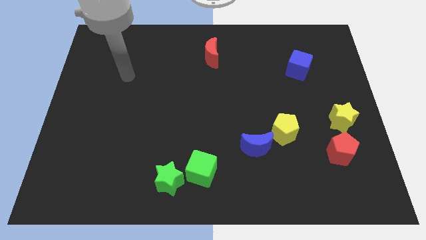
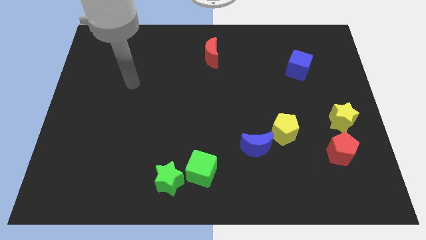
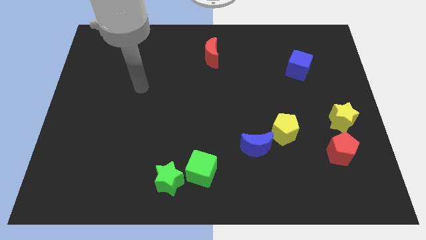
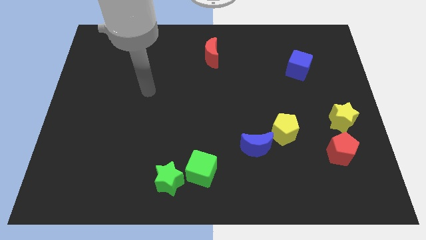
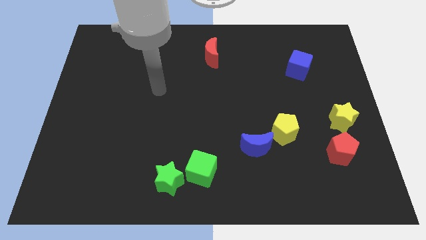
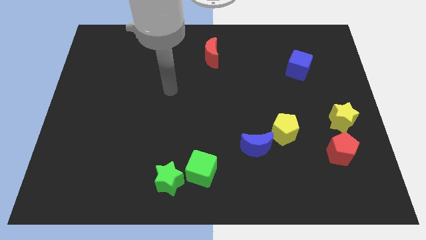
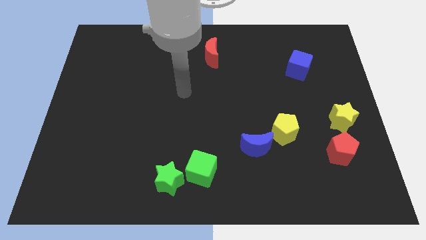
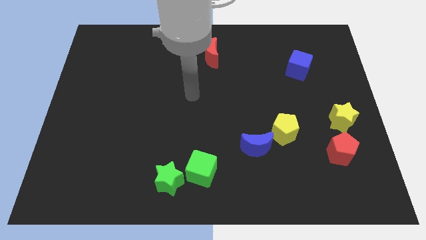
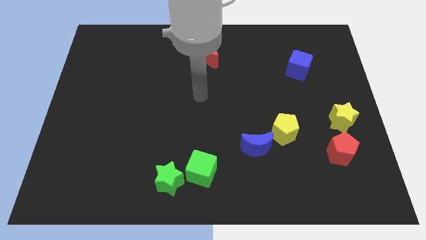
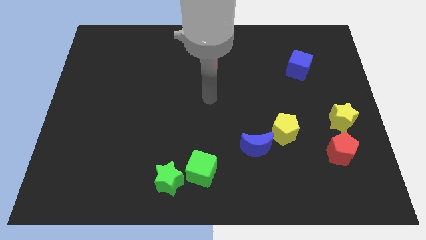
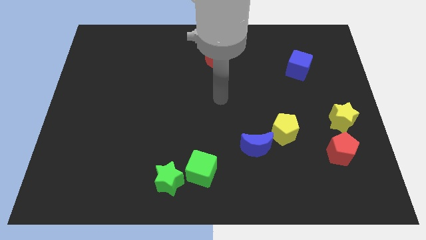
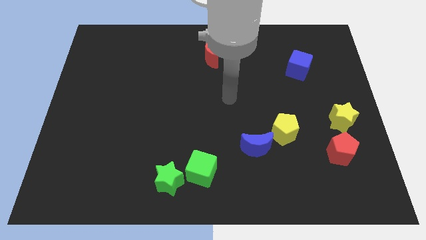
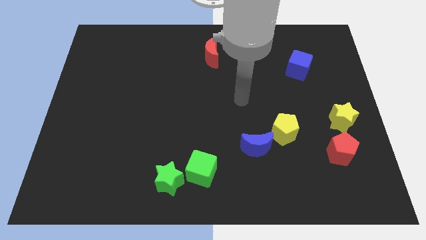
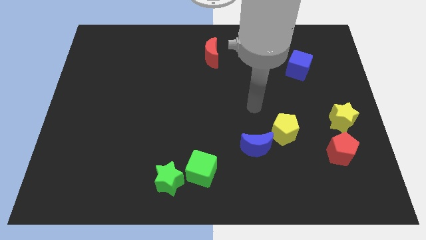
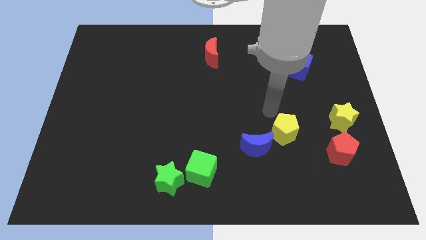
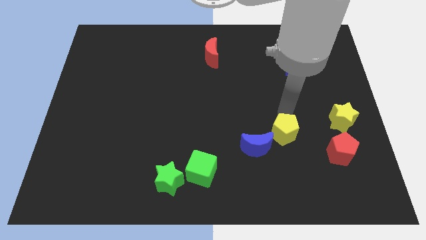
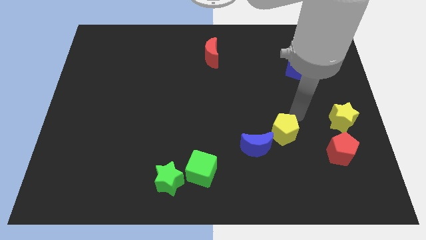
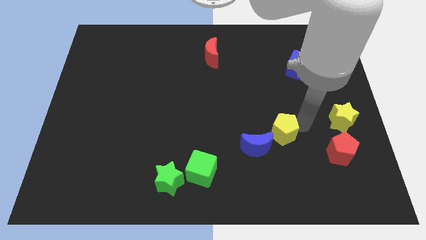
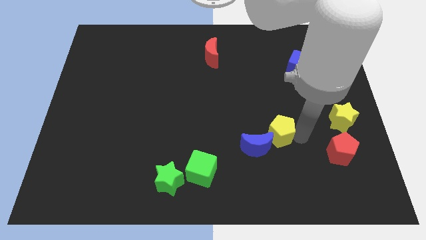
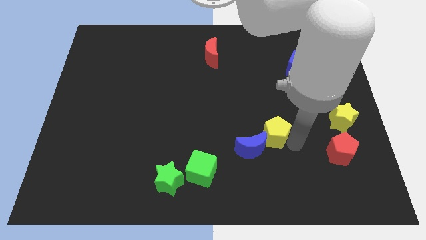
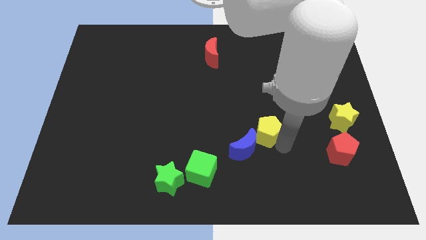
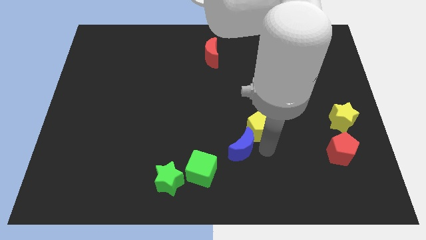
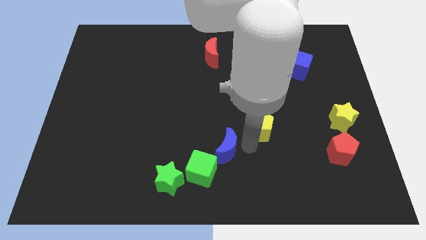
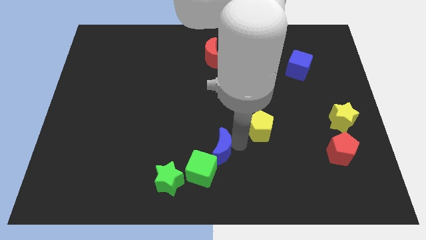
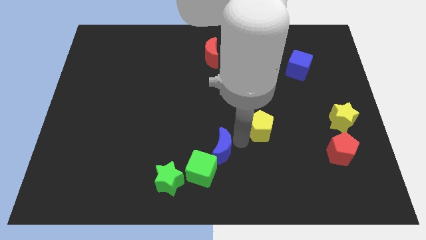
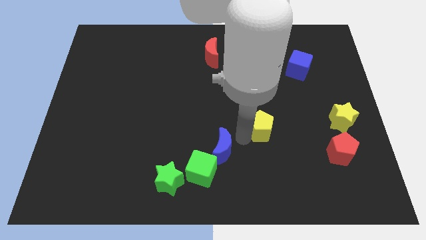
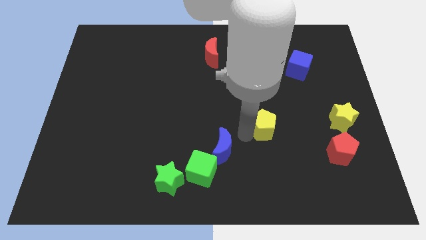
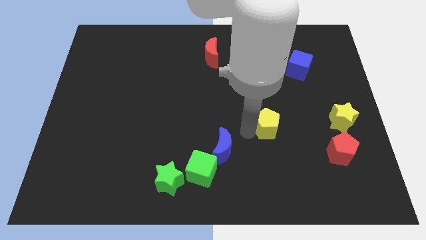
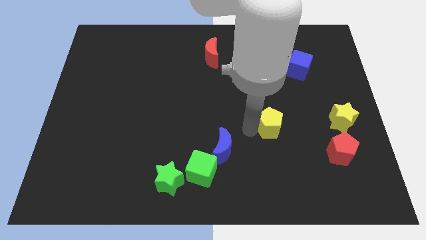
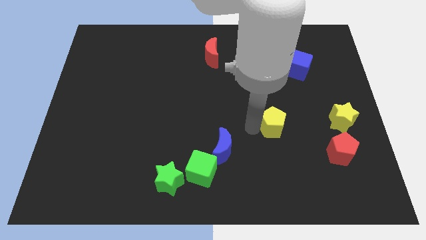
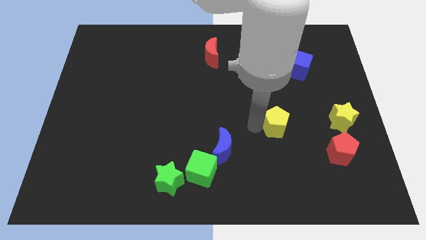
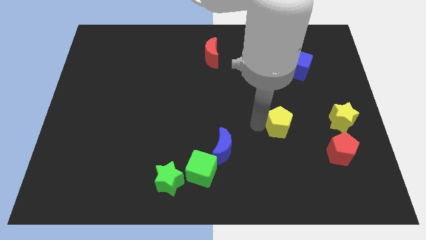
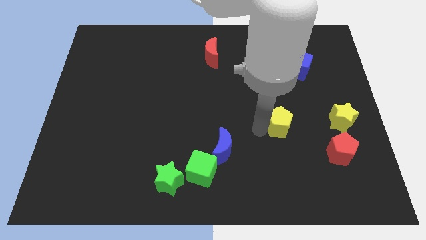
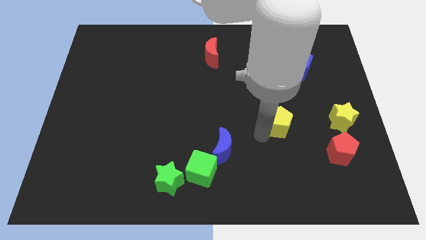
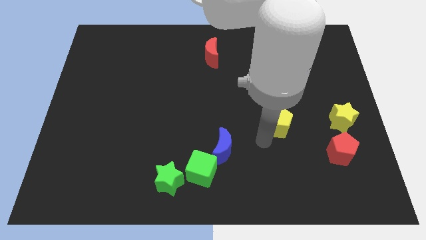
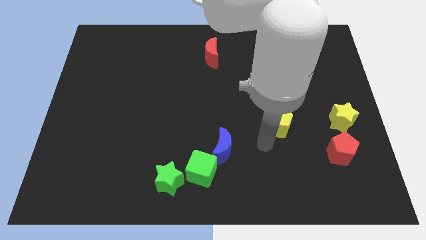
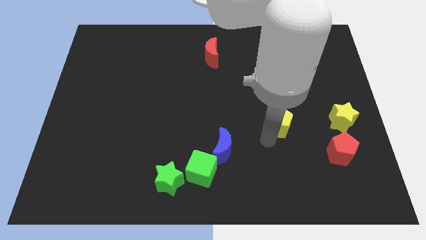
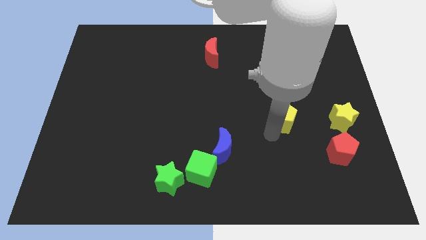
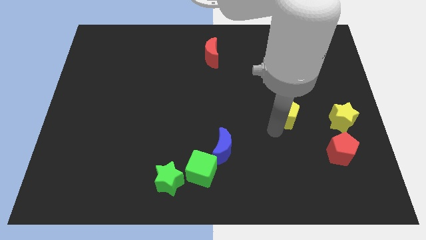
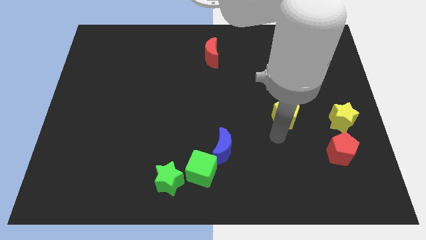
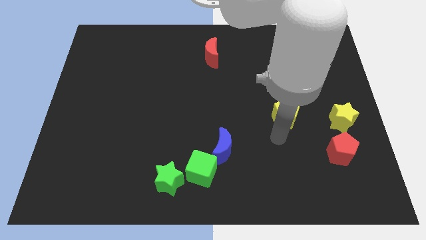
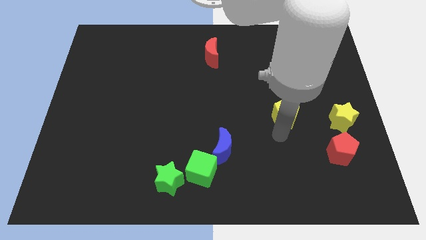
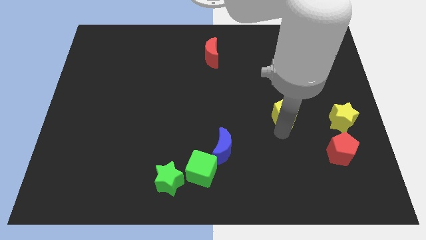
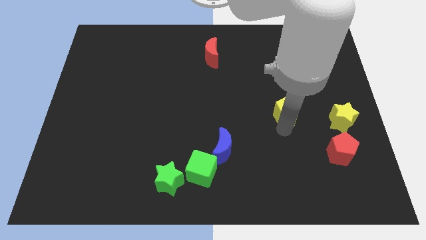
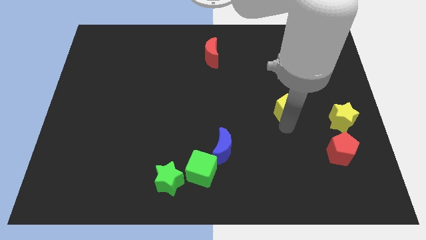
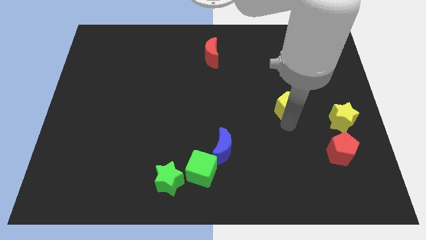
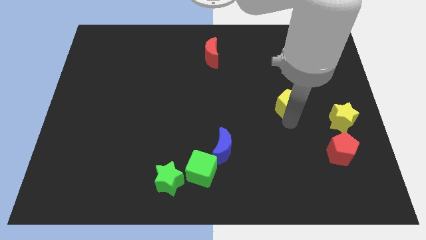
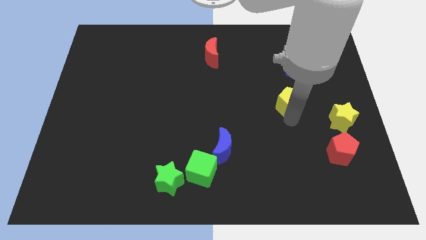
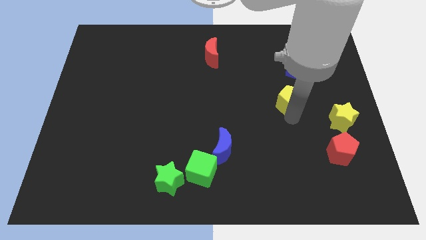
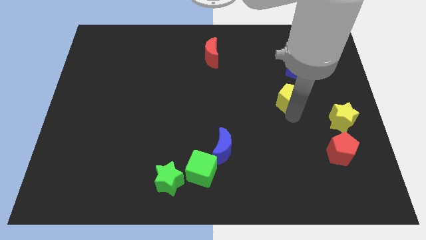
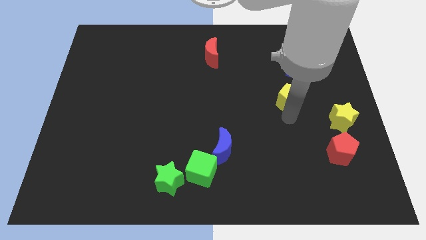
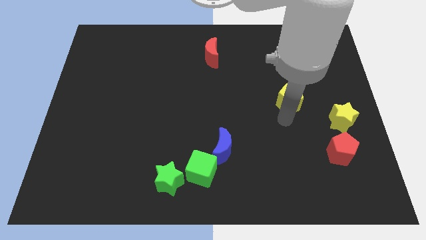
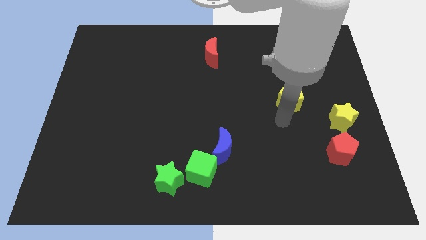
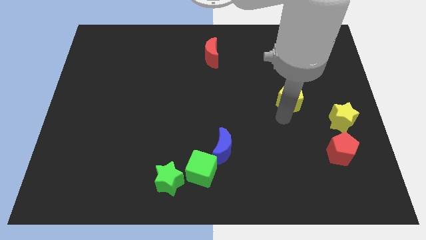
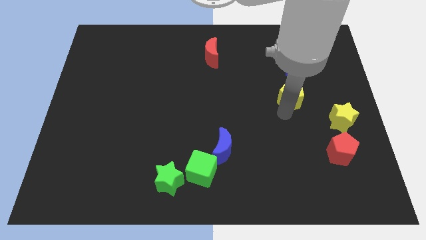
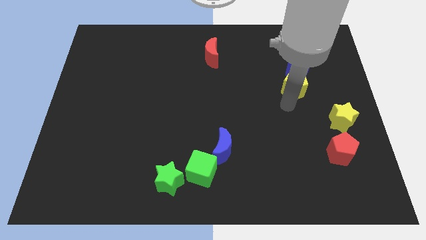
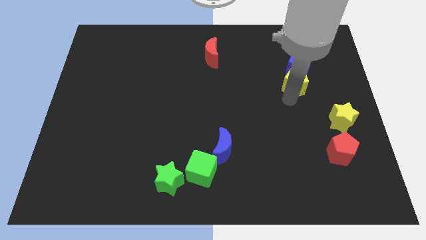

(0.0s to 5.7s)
slide the yellow pentagon towards the blue cube

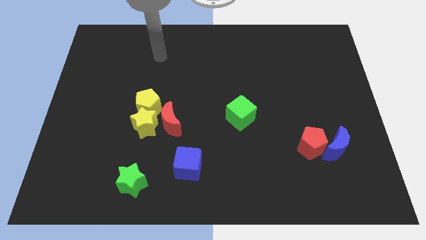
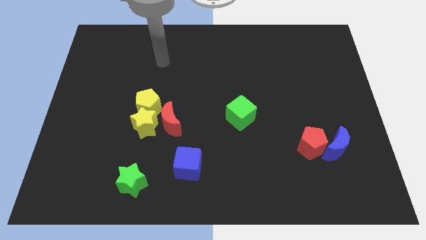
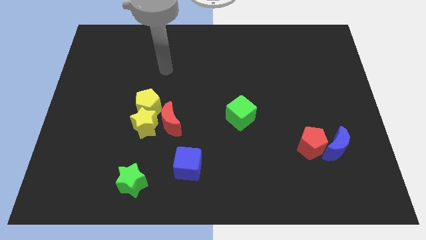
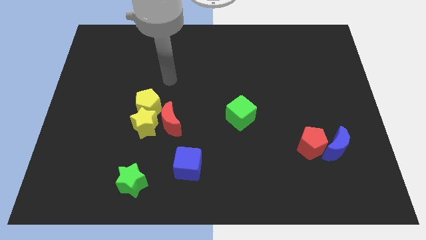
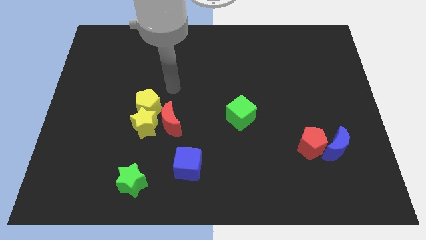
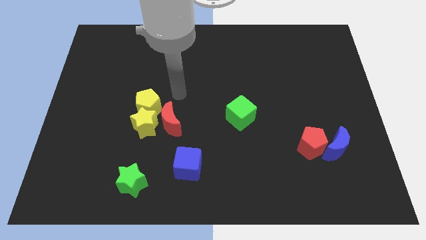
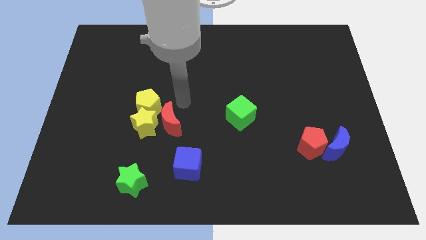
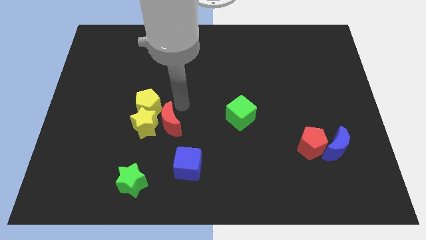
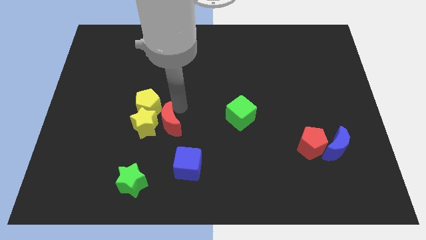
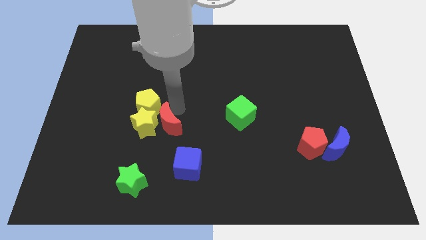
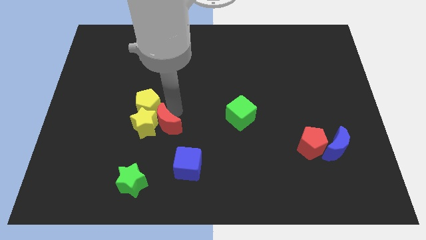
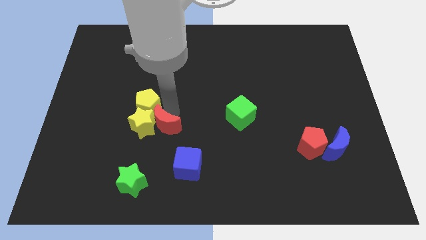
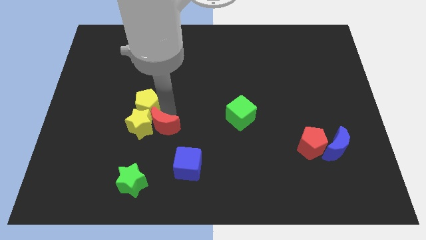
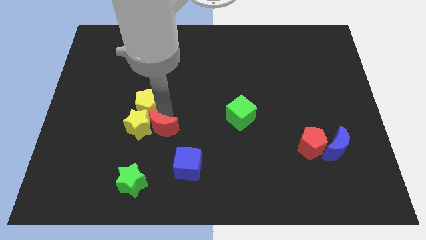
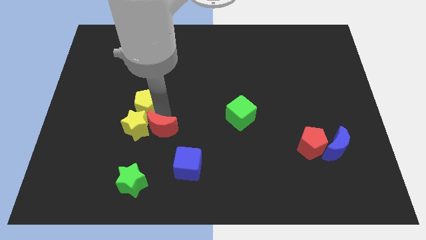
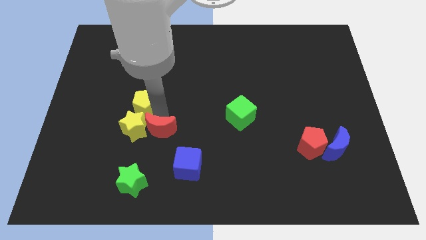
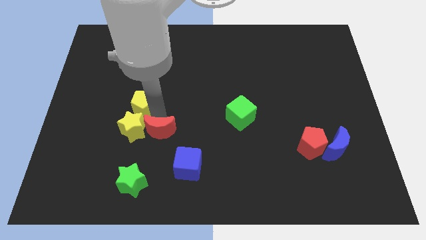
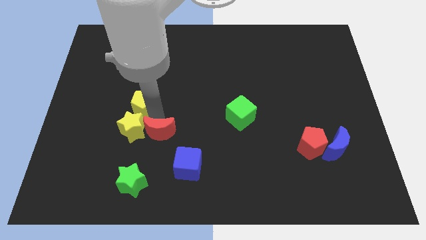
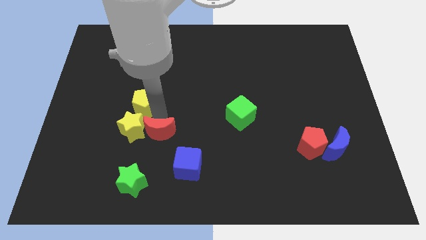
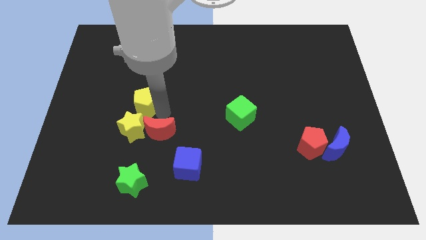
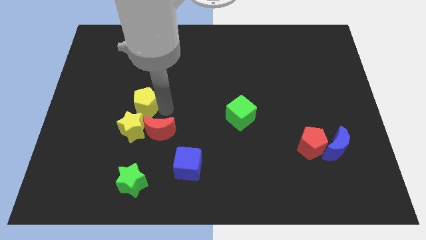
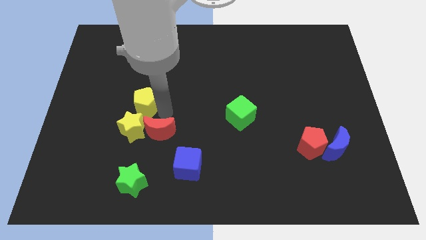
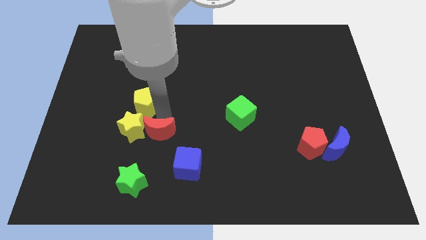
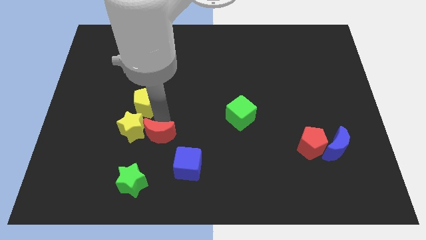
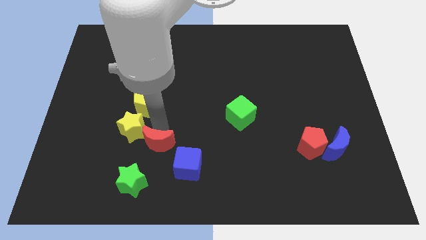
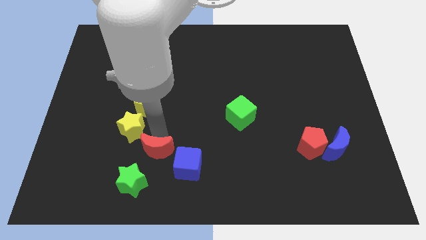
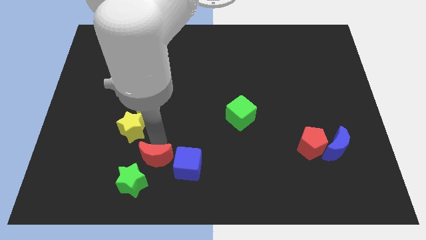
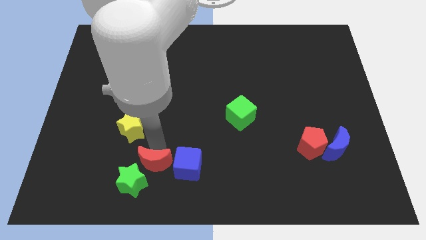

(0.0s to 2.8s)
push the red moon to the green star
